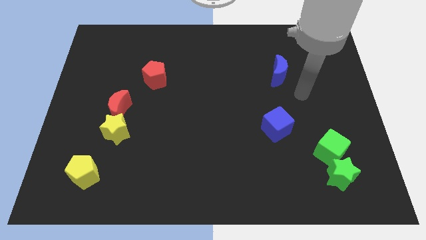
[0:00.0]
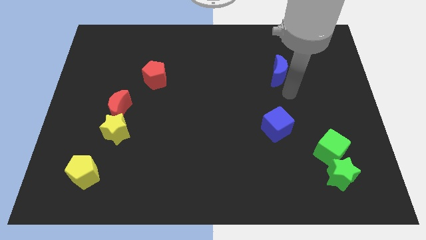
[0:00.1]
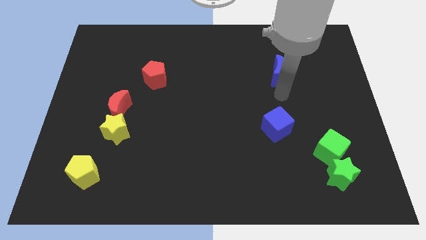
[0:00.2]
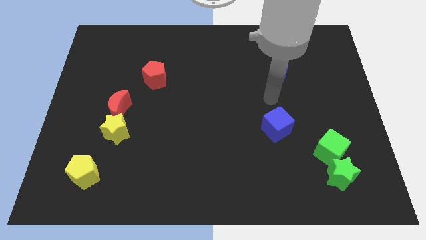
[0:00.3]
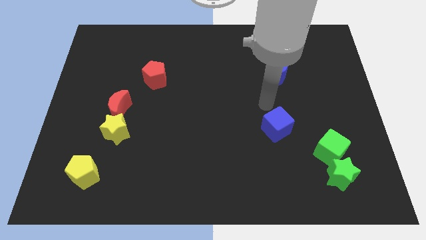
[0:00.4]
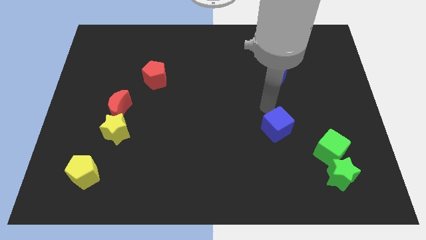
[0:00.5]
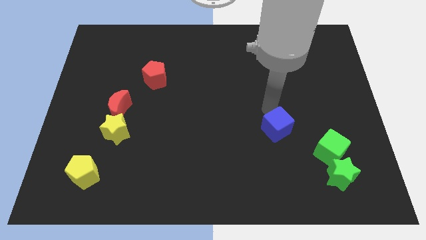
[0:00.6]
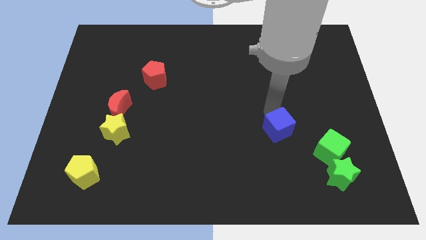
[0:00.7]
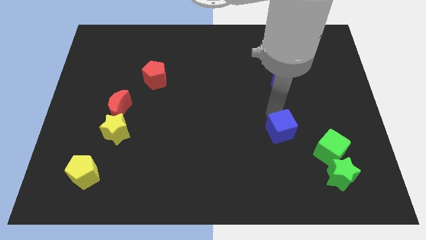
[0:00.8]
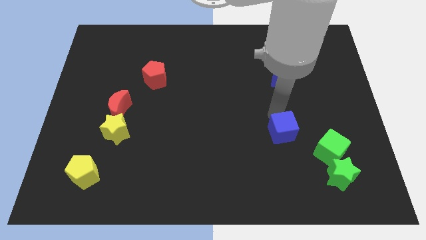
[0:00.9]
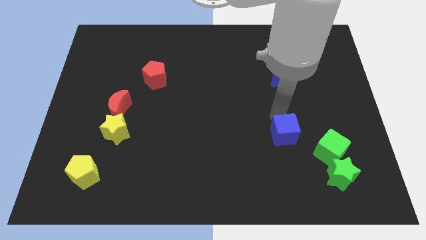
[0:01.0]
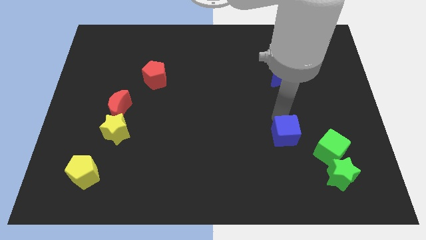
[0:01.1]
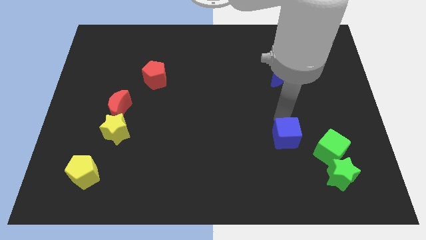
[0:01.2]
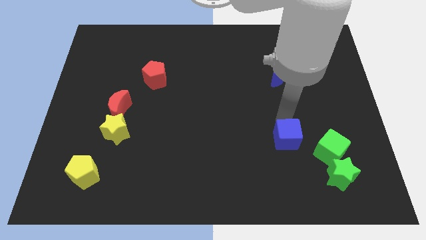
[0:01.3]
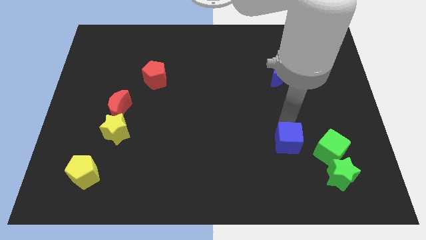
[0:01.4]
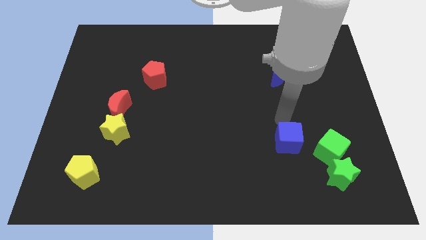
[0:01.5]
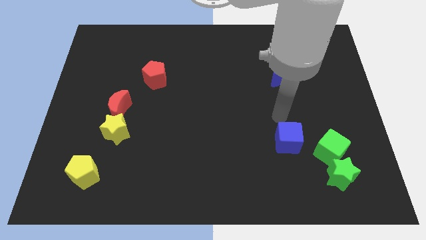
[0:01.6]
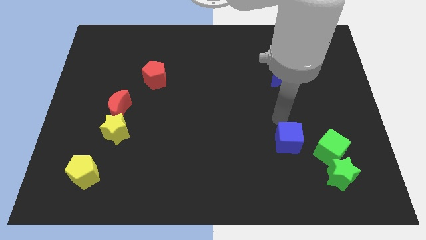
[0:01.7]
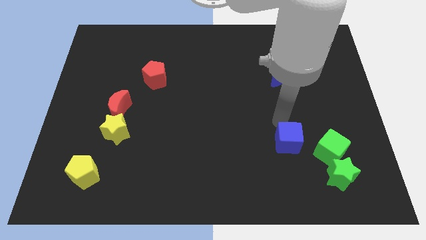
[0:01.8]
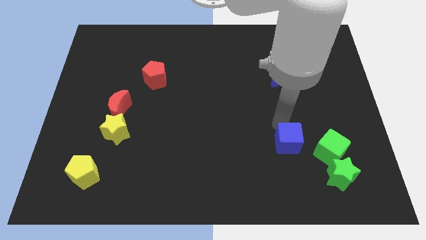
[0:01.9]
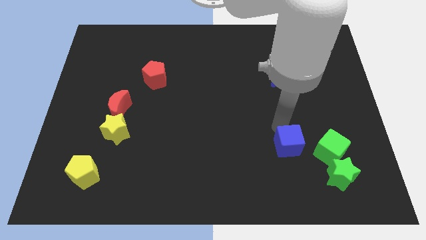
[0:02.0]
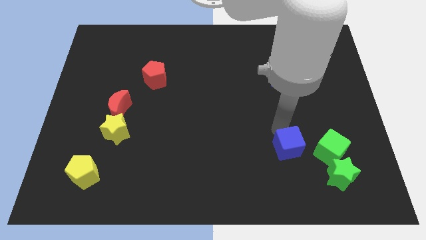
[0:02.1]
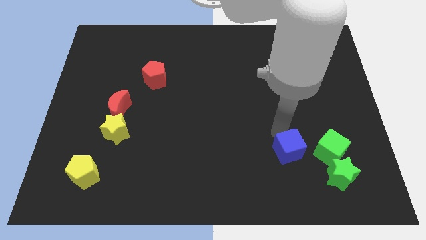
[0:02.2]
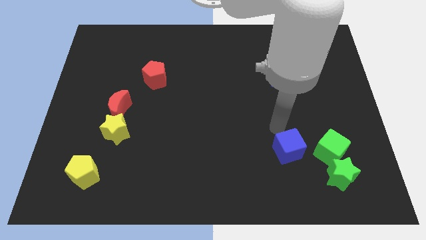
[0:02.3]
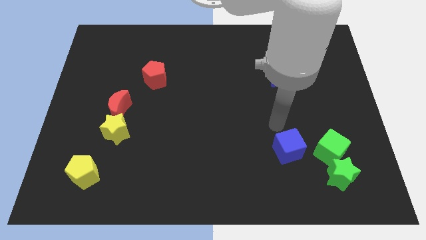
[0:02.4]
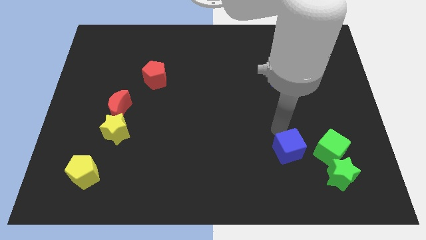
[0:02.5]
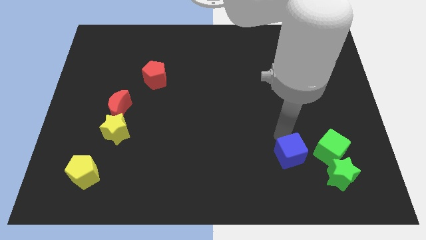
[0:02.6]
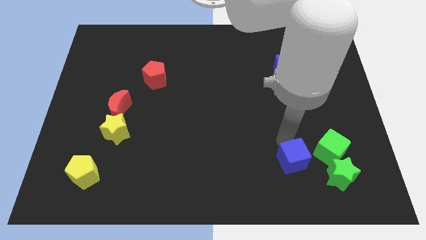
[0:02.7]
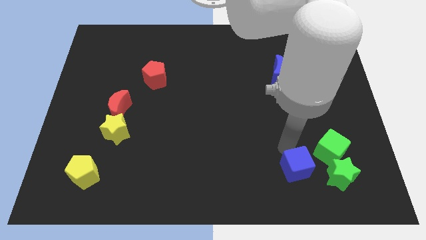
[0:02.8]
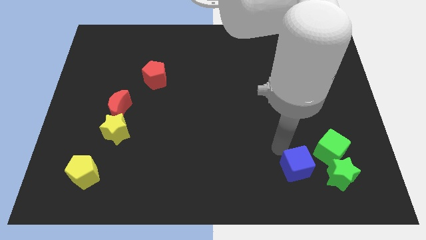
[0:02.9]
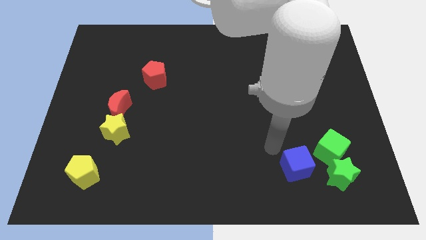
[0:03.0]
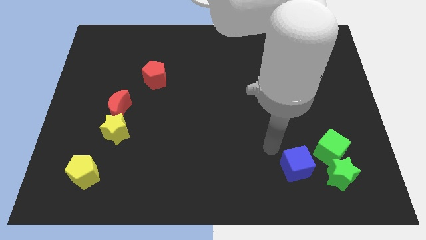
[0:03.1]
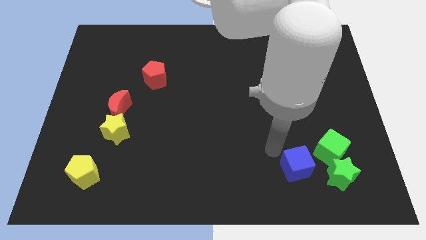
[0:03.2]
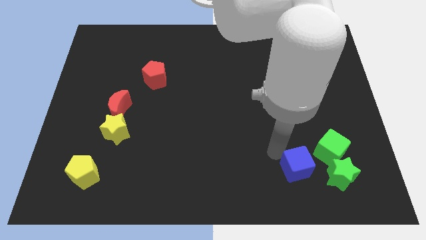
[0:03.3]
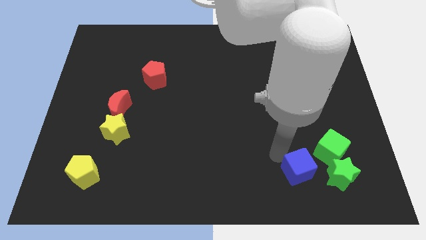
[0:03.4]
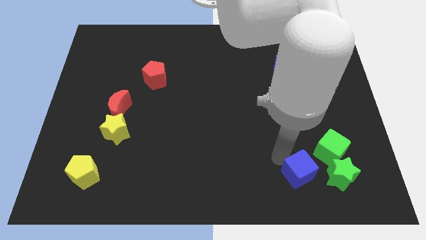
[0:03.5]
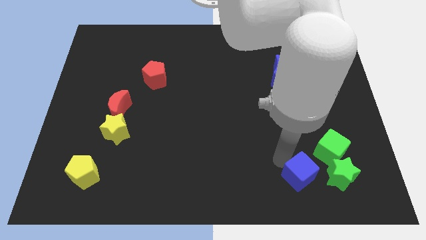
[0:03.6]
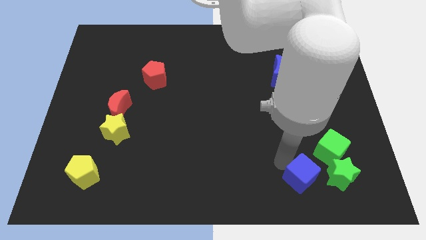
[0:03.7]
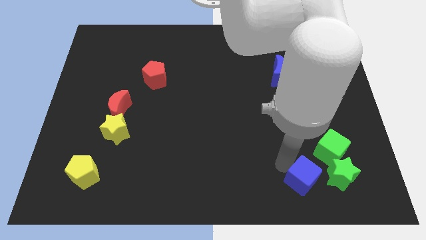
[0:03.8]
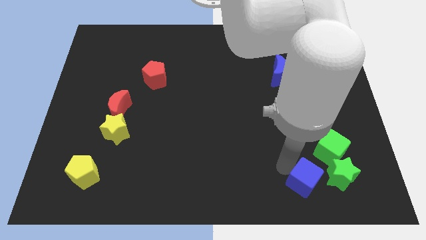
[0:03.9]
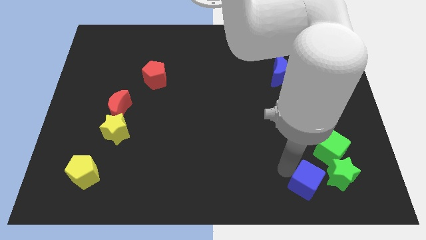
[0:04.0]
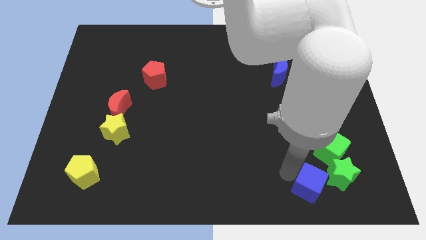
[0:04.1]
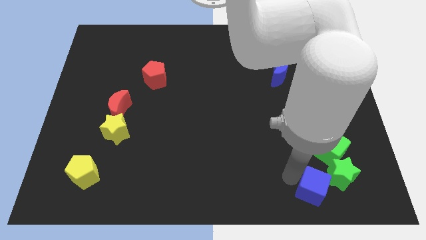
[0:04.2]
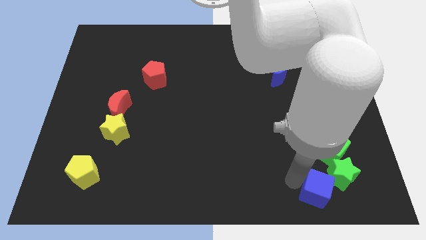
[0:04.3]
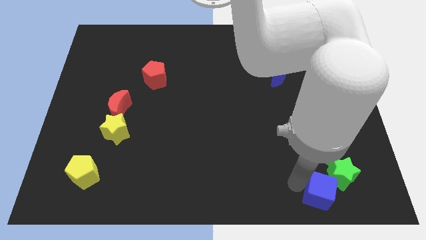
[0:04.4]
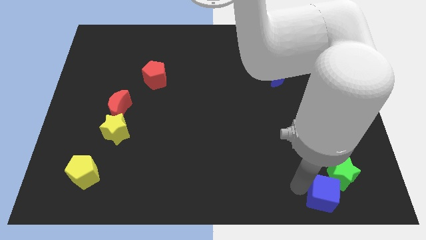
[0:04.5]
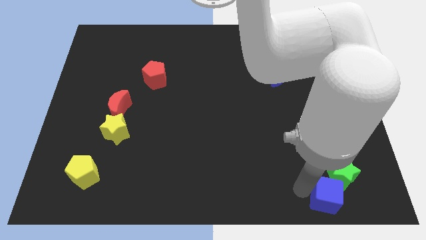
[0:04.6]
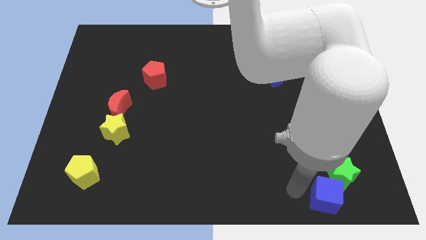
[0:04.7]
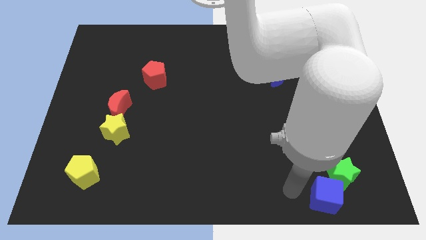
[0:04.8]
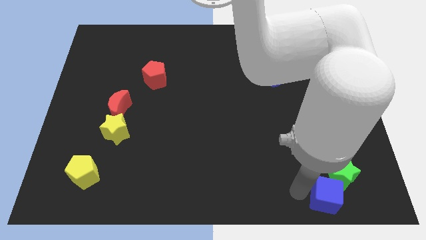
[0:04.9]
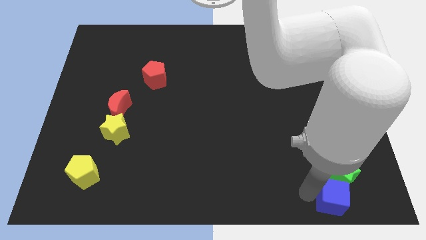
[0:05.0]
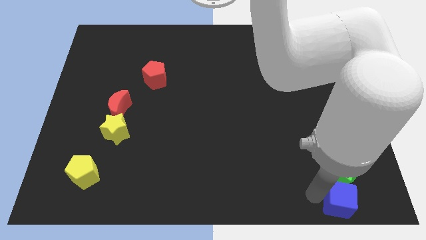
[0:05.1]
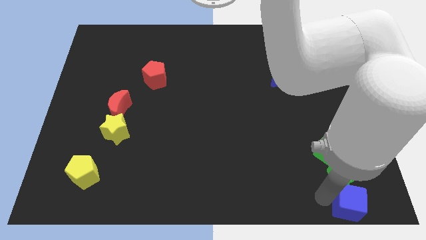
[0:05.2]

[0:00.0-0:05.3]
slide the blue cube to the bottom right corner
